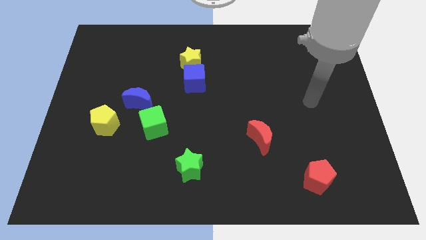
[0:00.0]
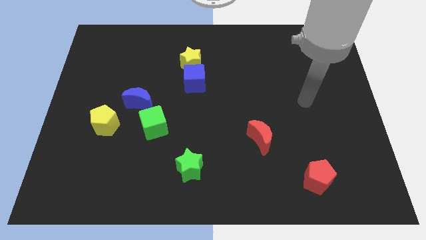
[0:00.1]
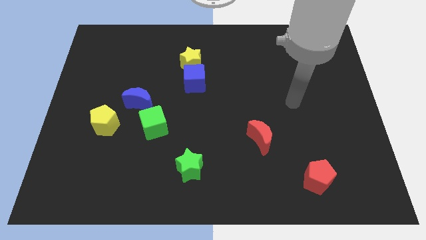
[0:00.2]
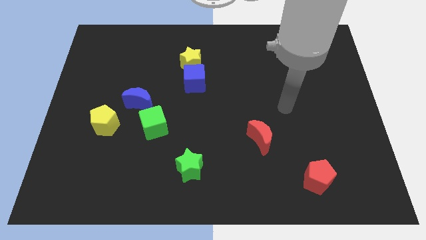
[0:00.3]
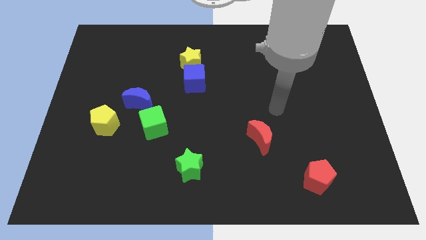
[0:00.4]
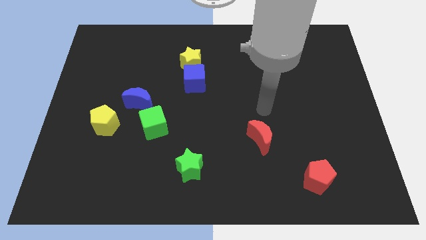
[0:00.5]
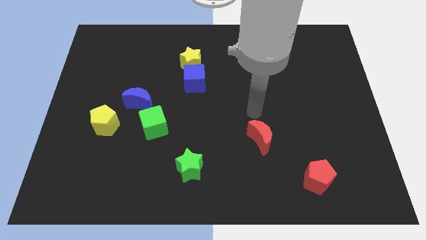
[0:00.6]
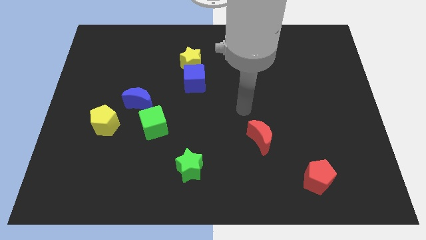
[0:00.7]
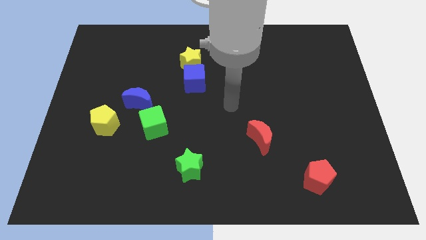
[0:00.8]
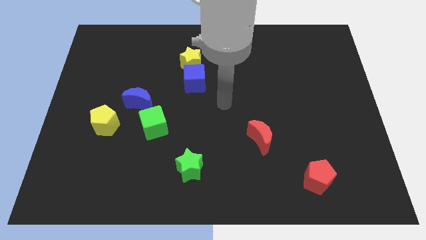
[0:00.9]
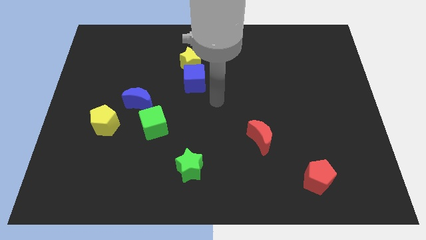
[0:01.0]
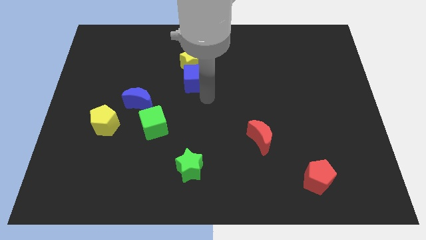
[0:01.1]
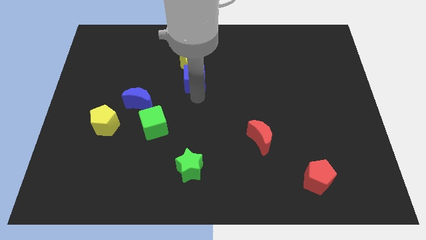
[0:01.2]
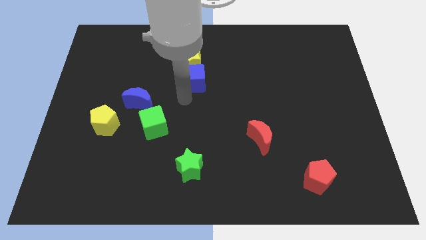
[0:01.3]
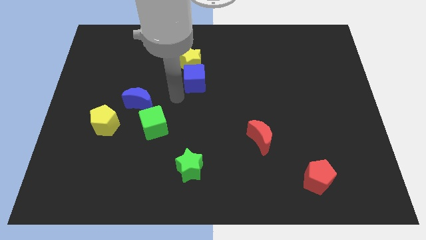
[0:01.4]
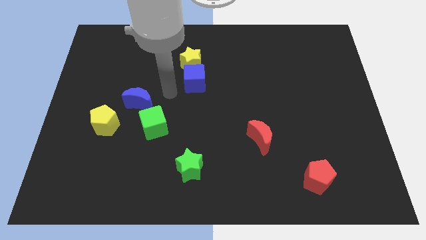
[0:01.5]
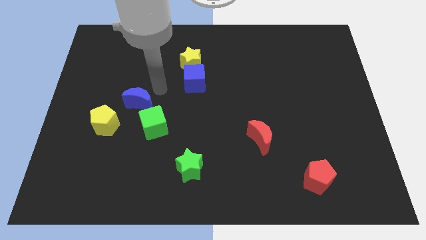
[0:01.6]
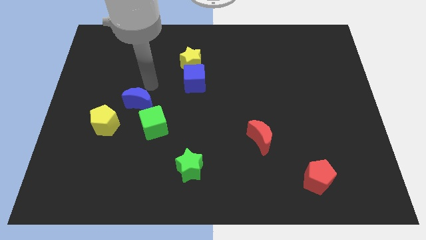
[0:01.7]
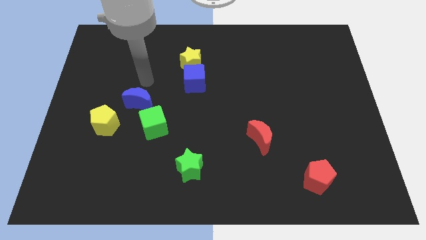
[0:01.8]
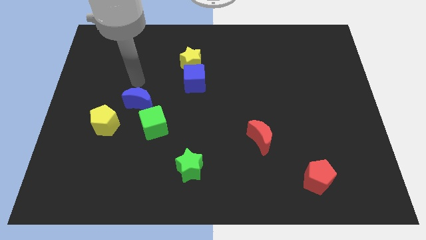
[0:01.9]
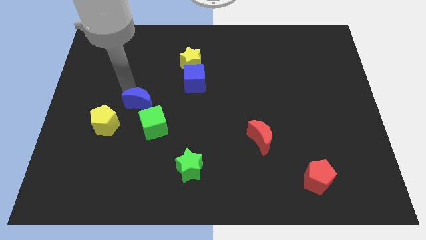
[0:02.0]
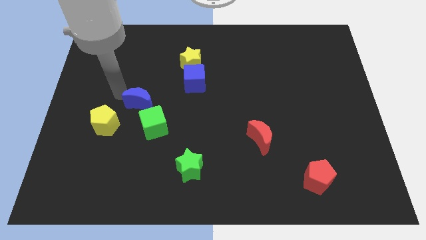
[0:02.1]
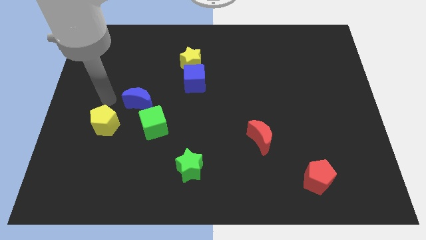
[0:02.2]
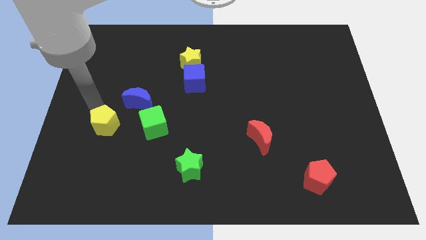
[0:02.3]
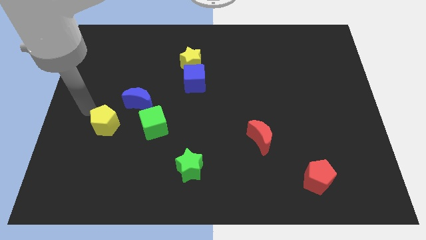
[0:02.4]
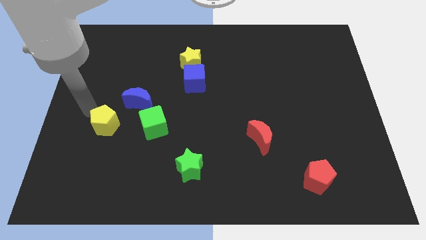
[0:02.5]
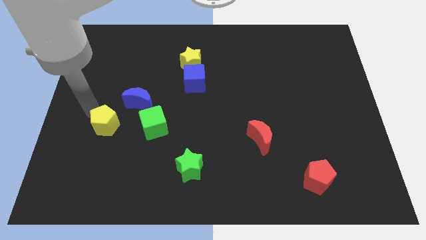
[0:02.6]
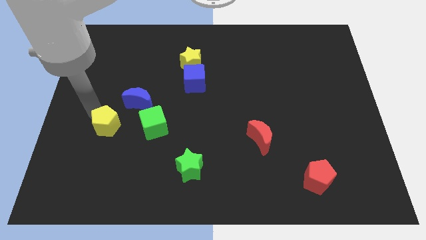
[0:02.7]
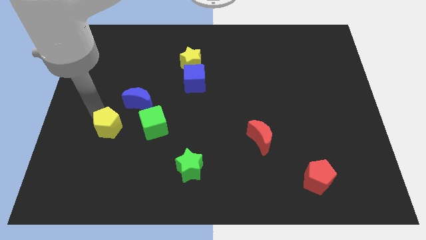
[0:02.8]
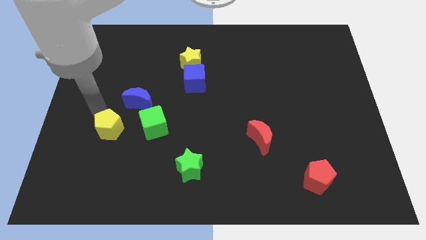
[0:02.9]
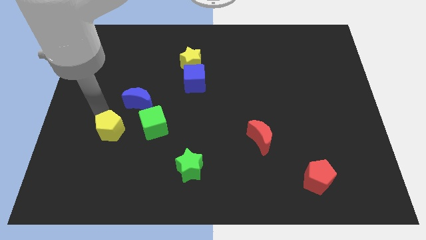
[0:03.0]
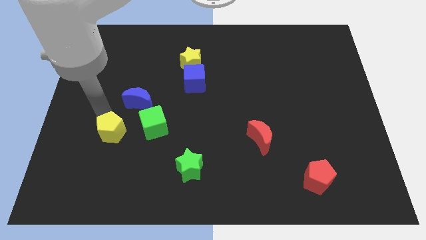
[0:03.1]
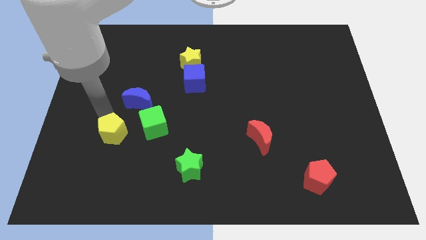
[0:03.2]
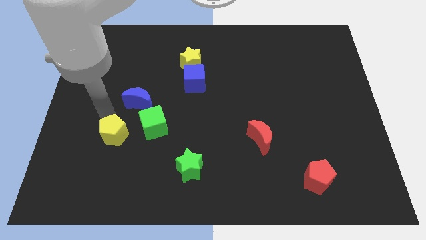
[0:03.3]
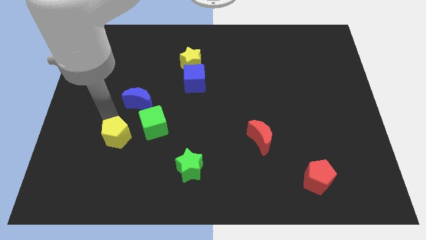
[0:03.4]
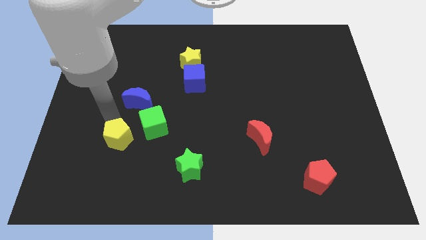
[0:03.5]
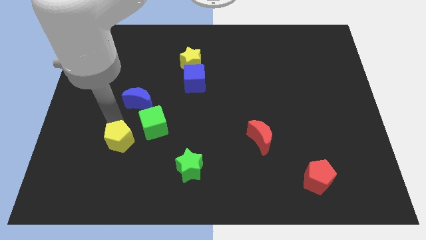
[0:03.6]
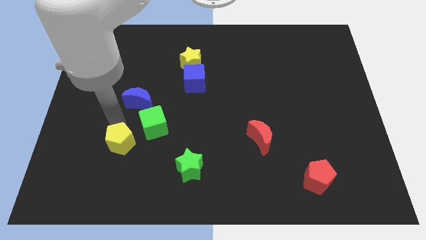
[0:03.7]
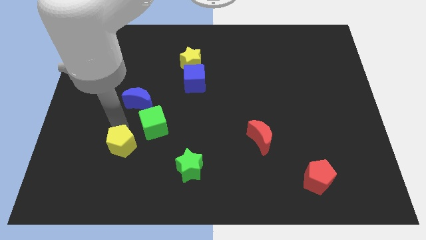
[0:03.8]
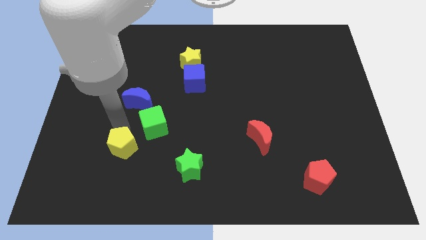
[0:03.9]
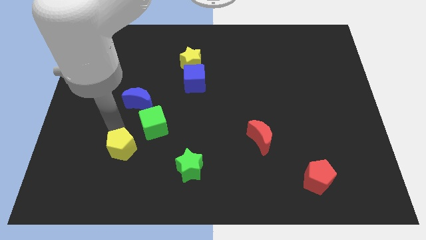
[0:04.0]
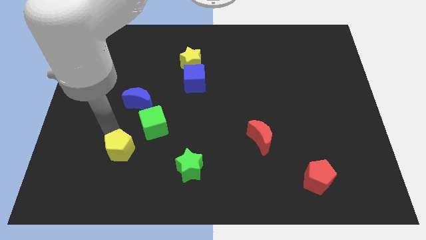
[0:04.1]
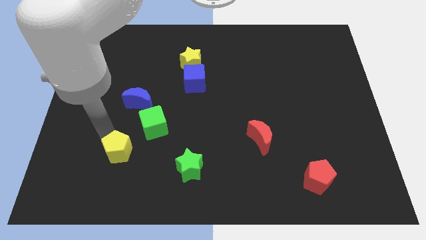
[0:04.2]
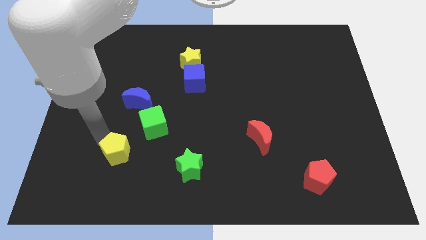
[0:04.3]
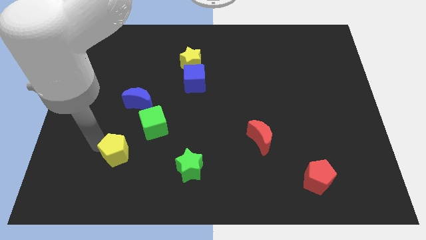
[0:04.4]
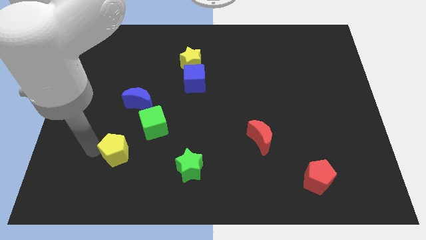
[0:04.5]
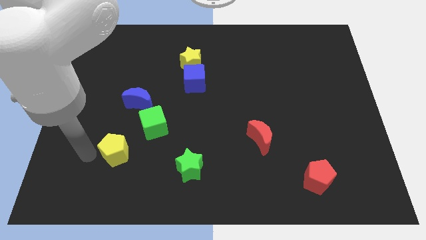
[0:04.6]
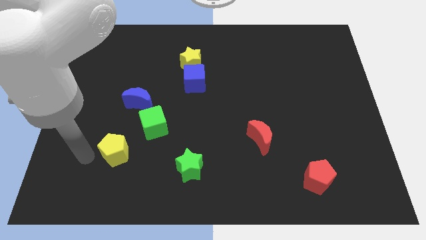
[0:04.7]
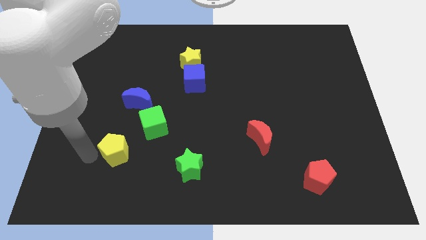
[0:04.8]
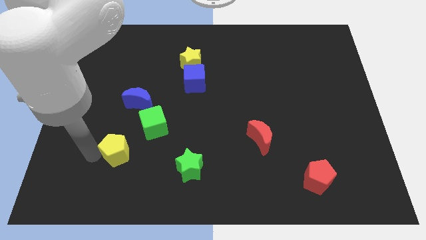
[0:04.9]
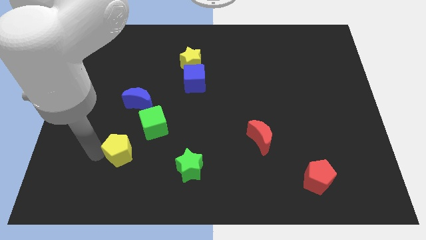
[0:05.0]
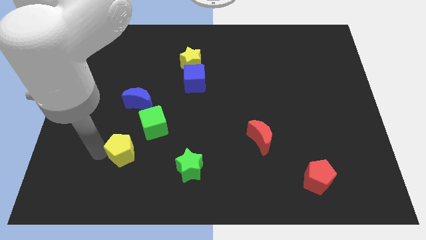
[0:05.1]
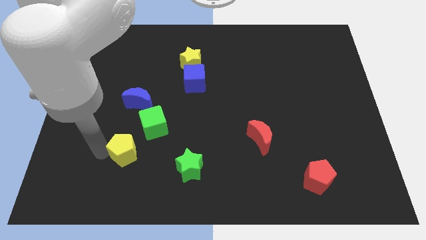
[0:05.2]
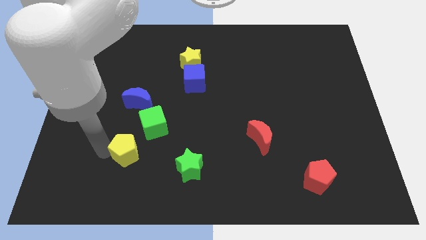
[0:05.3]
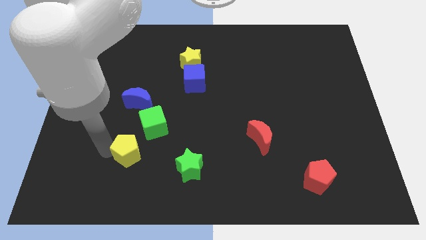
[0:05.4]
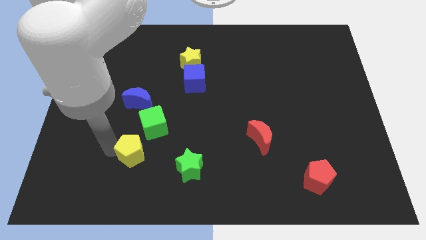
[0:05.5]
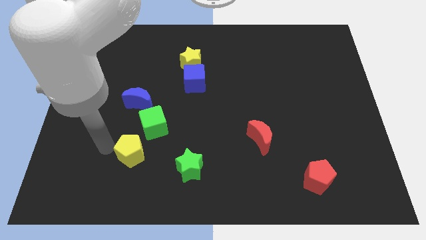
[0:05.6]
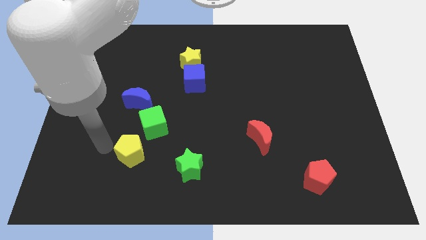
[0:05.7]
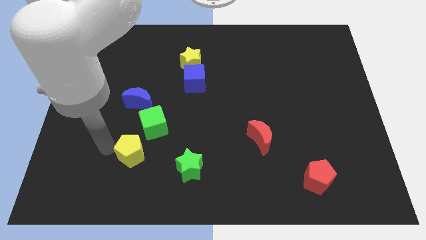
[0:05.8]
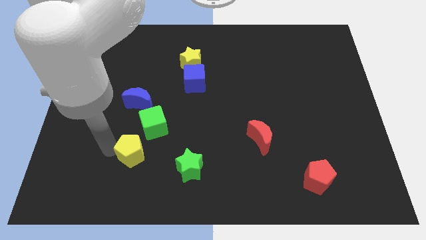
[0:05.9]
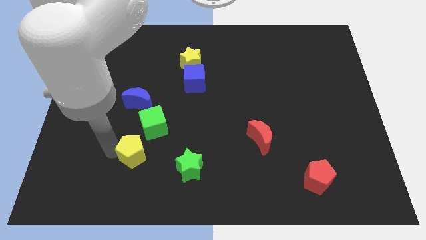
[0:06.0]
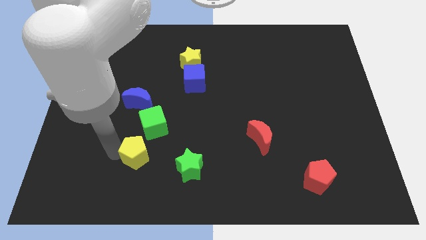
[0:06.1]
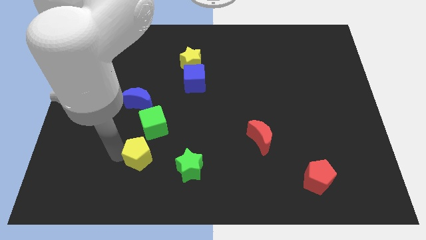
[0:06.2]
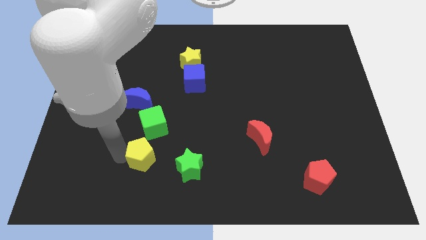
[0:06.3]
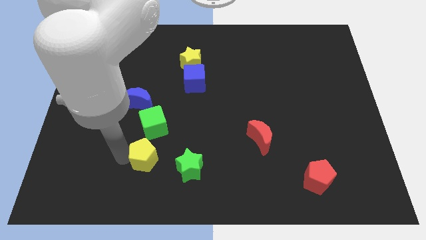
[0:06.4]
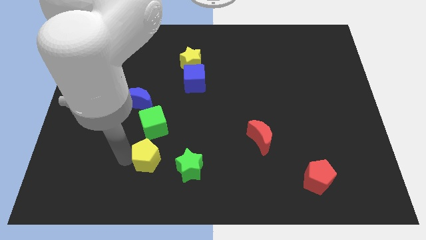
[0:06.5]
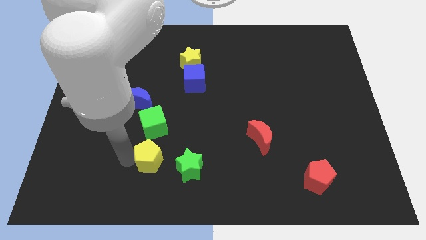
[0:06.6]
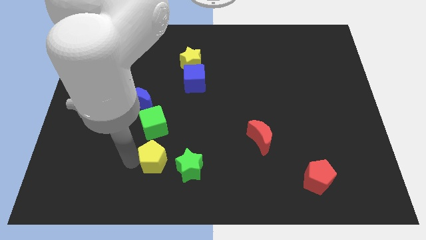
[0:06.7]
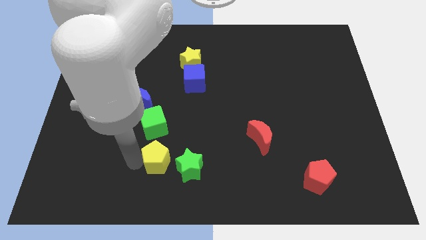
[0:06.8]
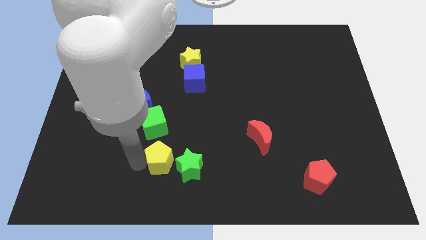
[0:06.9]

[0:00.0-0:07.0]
push the yellow pentagon close to the green star
